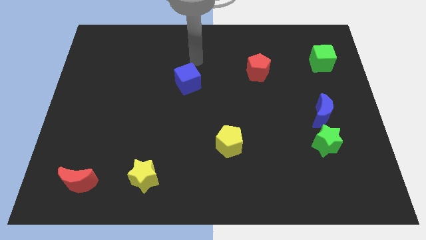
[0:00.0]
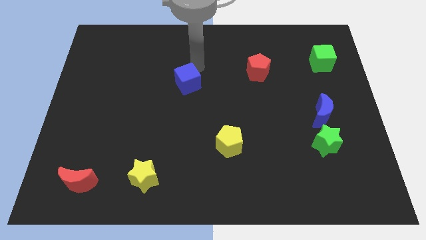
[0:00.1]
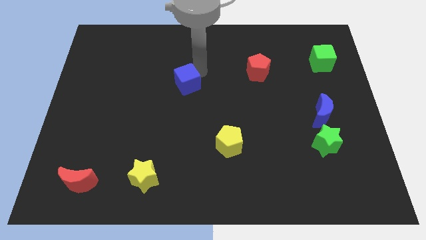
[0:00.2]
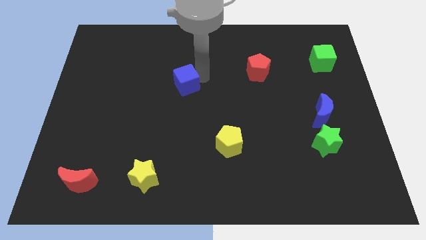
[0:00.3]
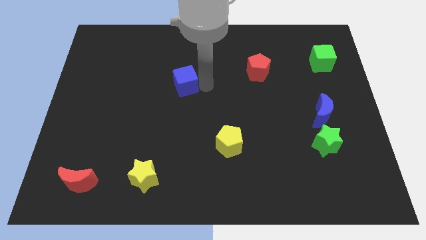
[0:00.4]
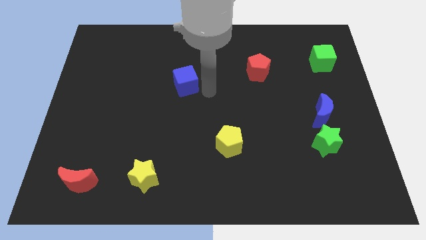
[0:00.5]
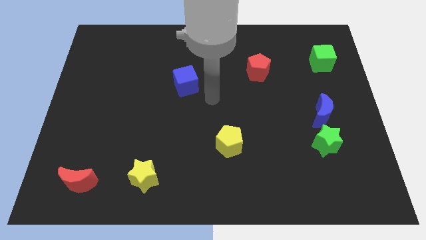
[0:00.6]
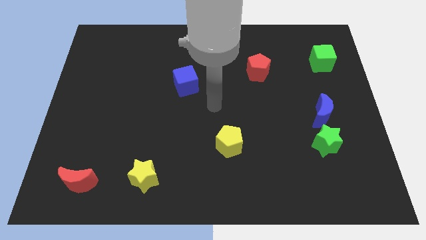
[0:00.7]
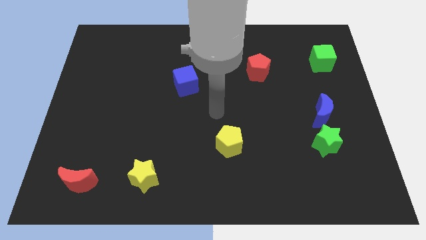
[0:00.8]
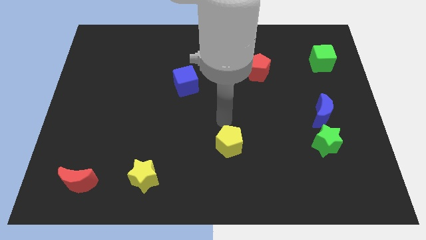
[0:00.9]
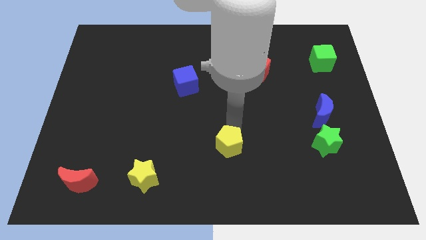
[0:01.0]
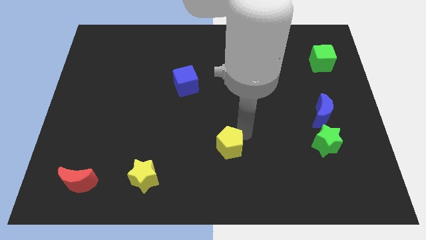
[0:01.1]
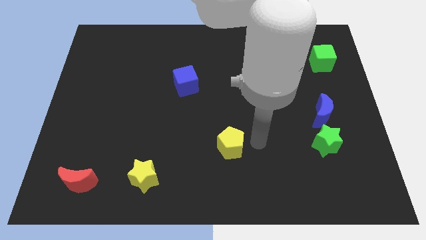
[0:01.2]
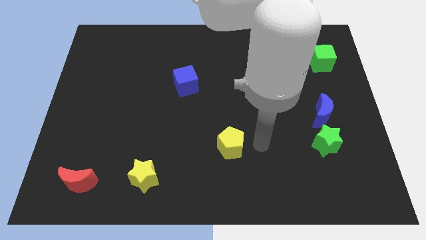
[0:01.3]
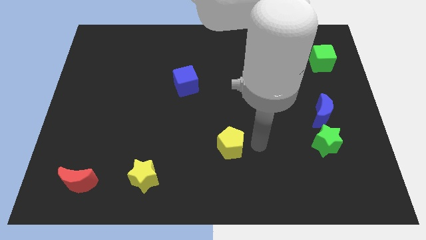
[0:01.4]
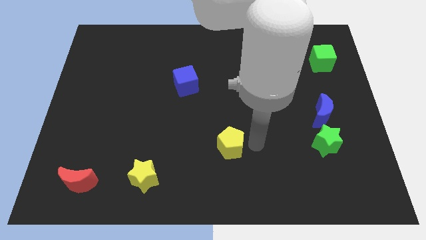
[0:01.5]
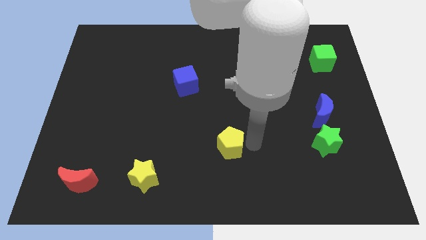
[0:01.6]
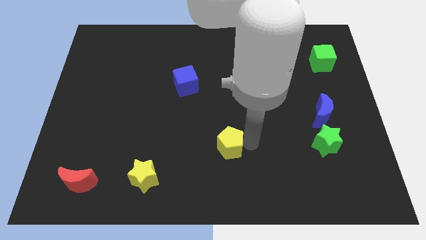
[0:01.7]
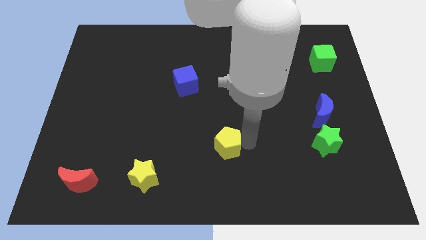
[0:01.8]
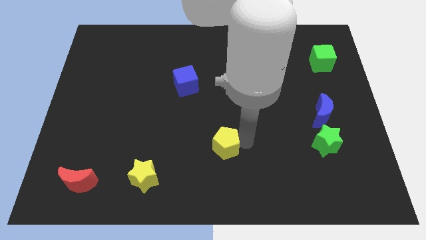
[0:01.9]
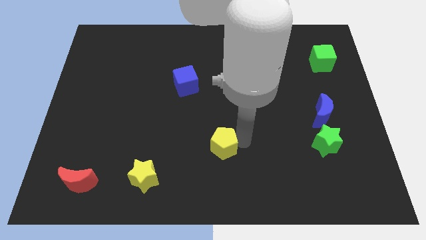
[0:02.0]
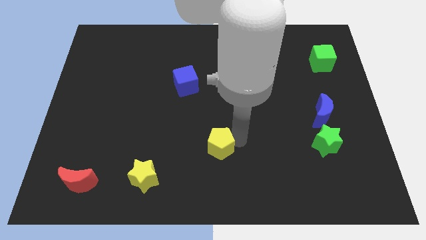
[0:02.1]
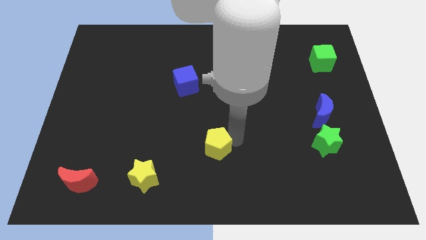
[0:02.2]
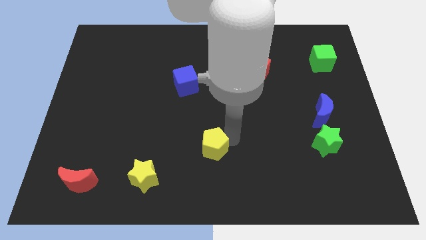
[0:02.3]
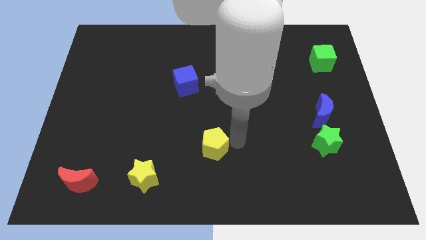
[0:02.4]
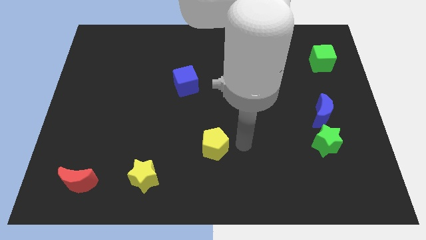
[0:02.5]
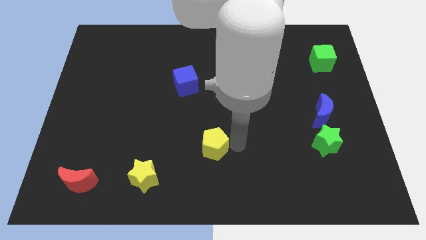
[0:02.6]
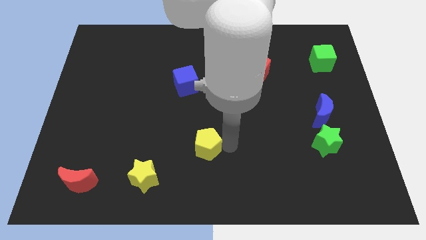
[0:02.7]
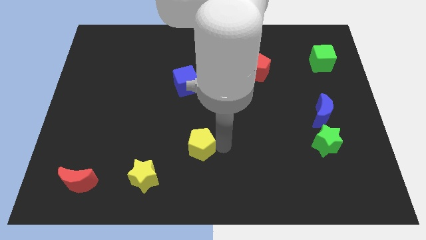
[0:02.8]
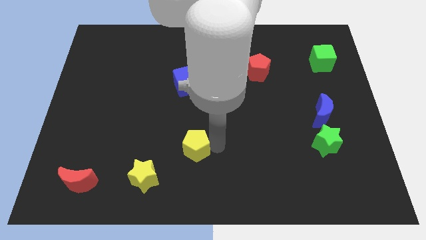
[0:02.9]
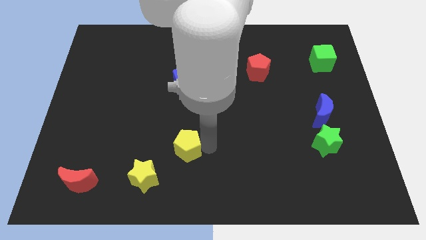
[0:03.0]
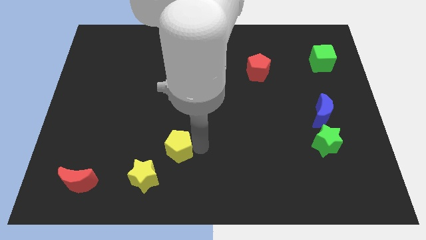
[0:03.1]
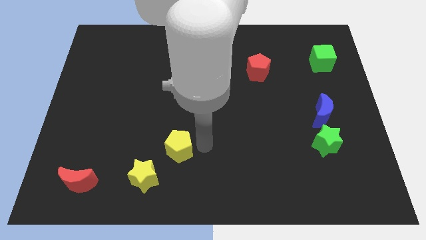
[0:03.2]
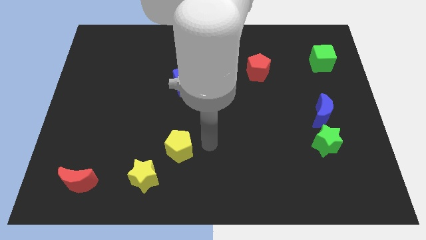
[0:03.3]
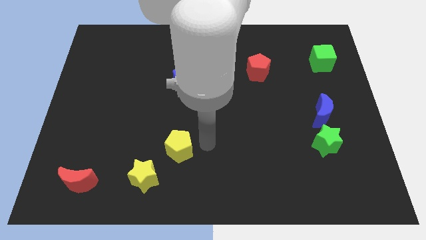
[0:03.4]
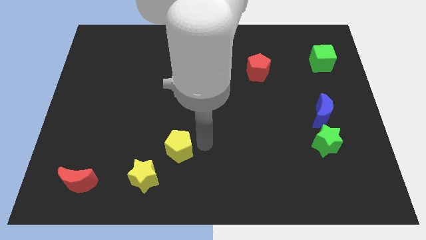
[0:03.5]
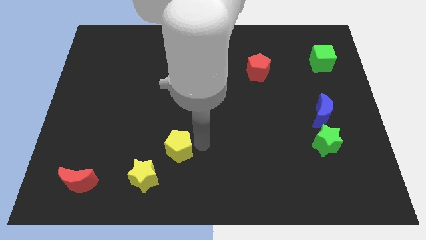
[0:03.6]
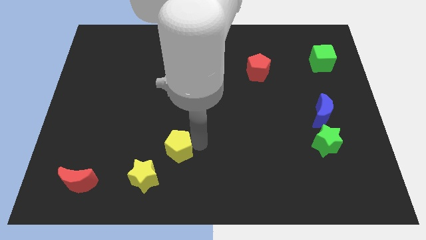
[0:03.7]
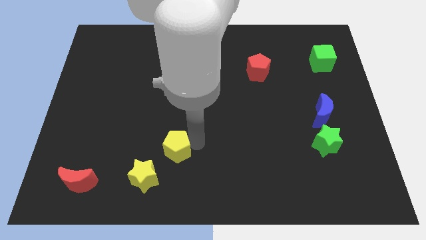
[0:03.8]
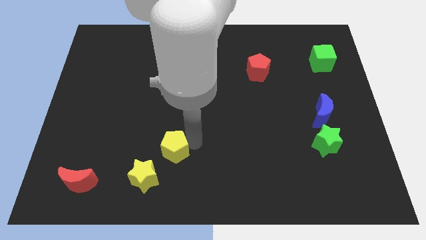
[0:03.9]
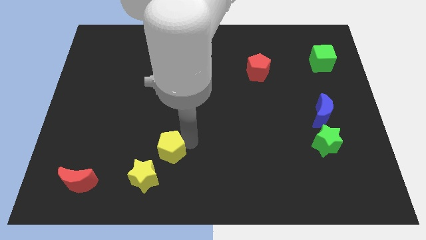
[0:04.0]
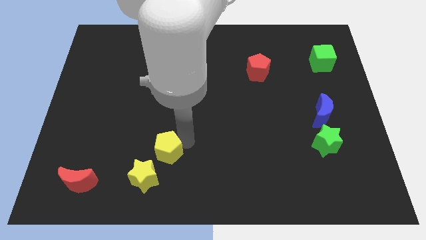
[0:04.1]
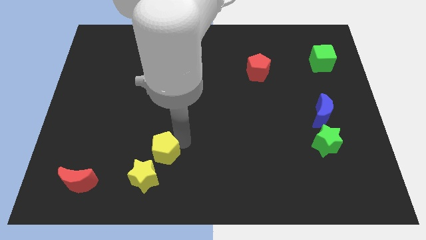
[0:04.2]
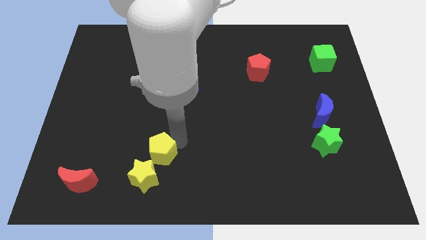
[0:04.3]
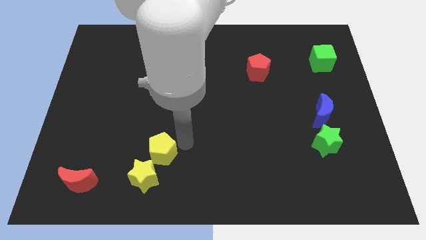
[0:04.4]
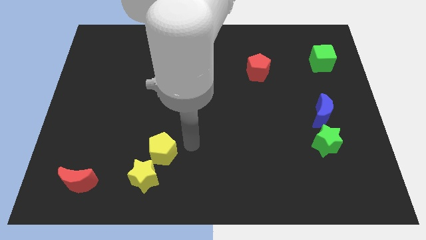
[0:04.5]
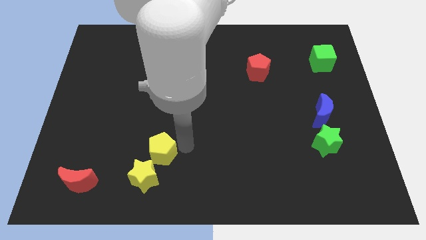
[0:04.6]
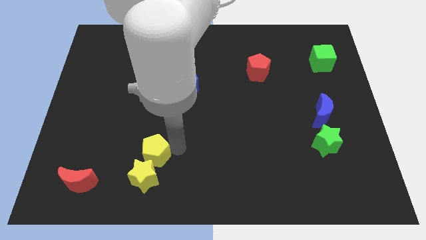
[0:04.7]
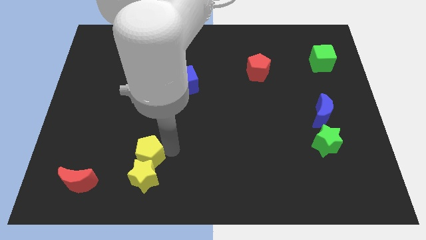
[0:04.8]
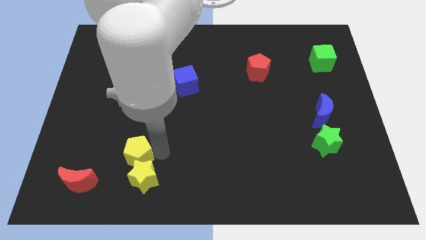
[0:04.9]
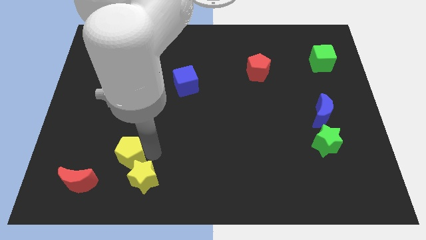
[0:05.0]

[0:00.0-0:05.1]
slide the yellow pentagon to the top right side of the red moon

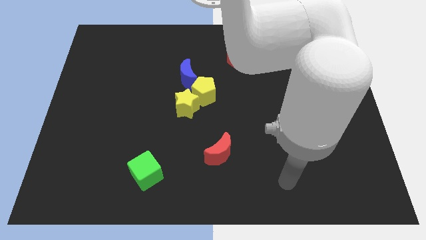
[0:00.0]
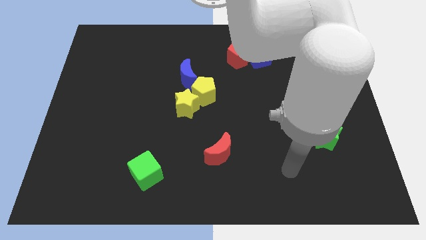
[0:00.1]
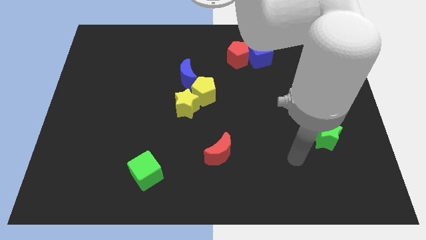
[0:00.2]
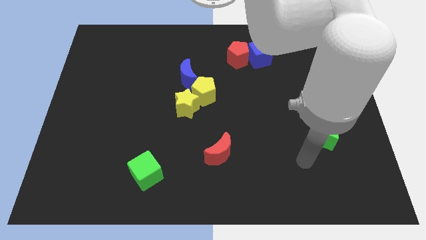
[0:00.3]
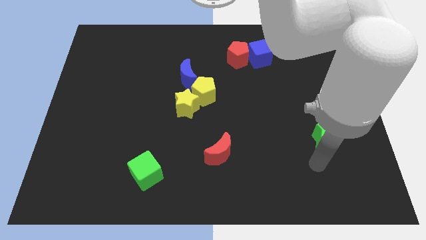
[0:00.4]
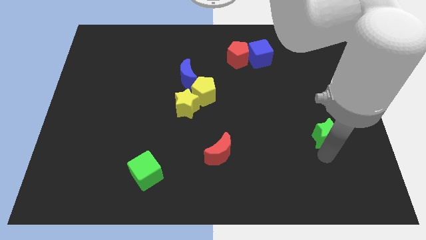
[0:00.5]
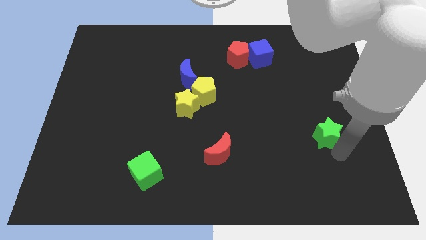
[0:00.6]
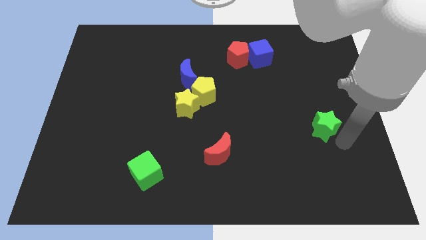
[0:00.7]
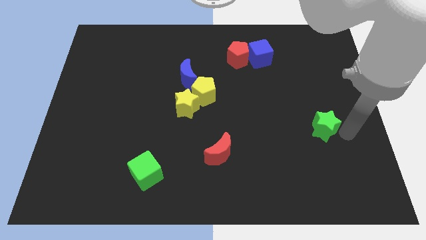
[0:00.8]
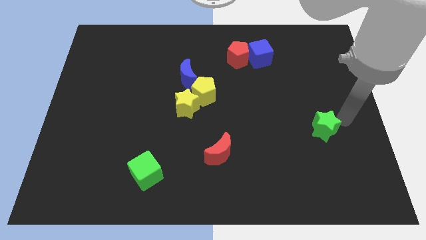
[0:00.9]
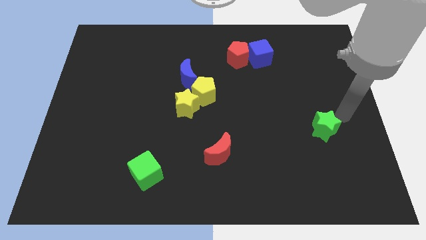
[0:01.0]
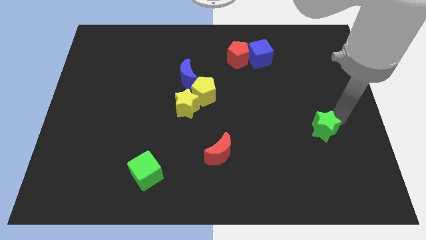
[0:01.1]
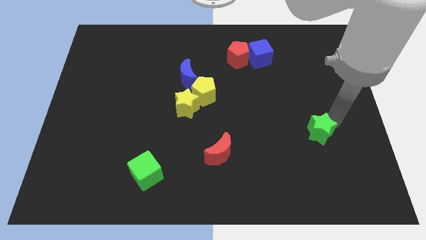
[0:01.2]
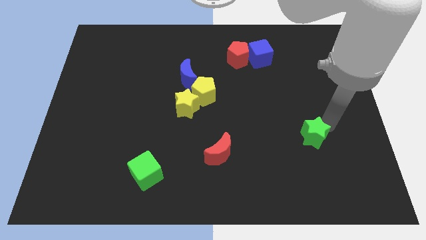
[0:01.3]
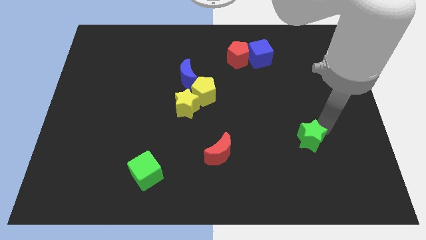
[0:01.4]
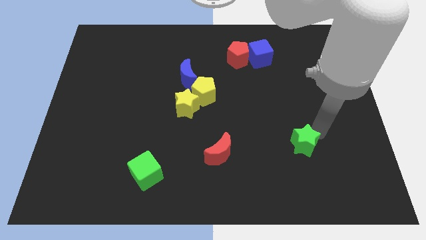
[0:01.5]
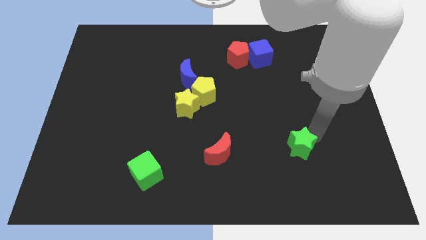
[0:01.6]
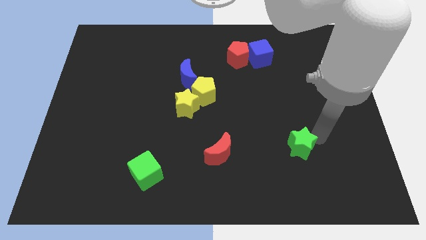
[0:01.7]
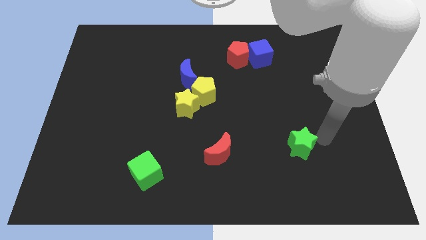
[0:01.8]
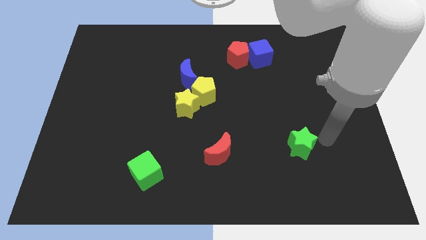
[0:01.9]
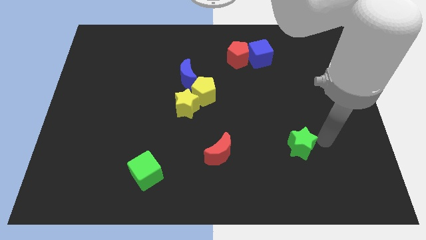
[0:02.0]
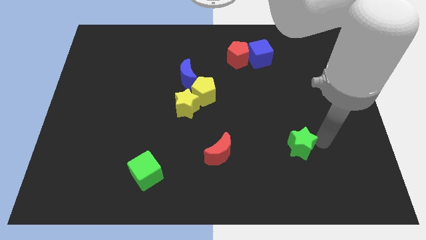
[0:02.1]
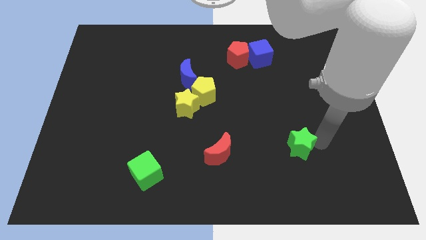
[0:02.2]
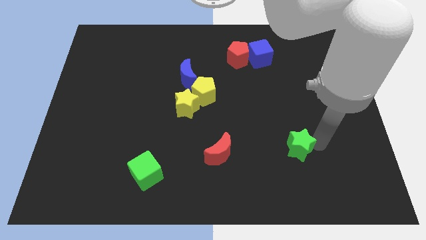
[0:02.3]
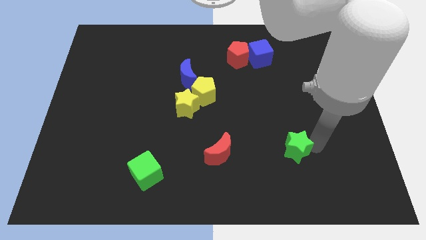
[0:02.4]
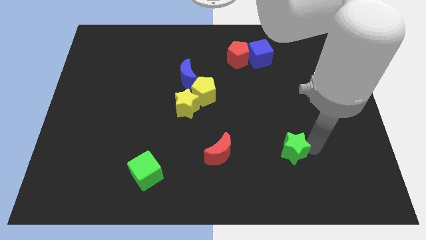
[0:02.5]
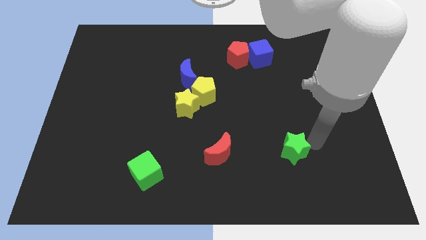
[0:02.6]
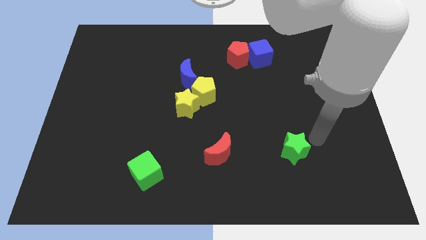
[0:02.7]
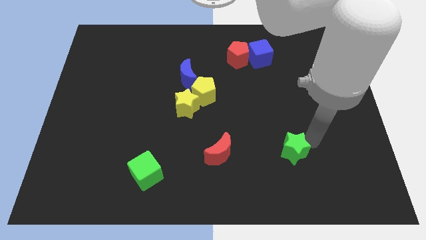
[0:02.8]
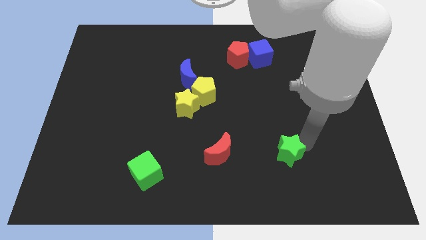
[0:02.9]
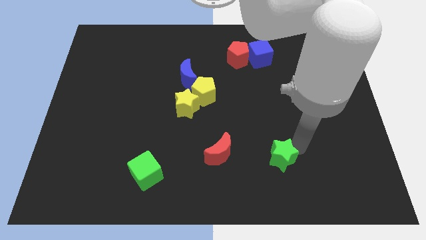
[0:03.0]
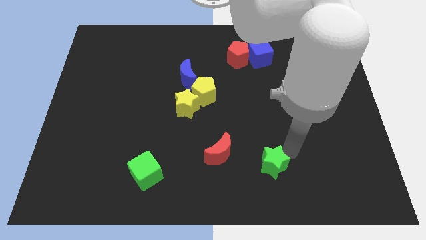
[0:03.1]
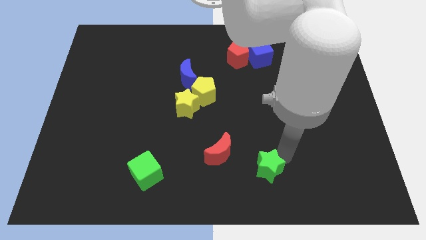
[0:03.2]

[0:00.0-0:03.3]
push the green star diagonally down and to the right of the red moon
